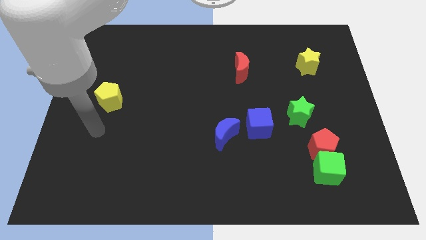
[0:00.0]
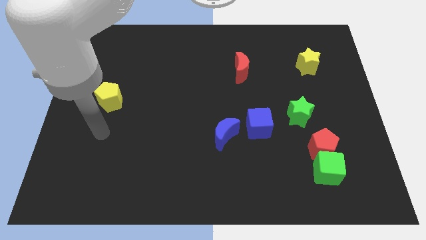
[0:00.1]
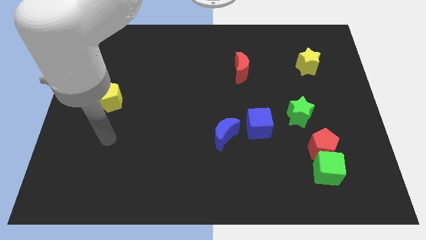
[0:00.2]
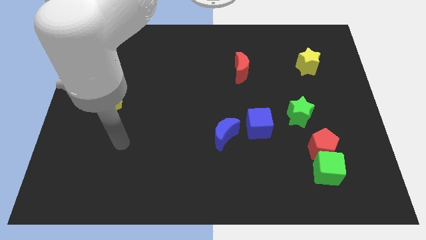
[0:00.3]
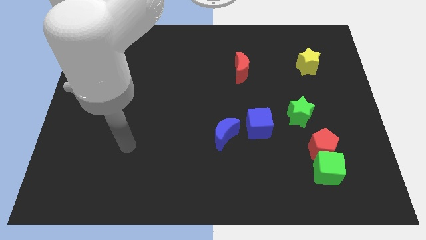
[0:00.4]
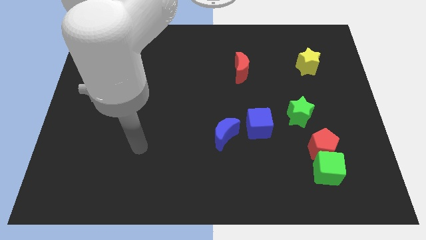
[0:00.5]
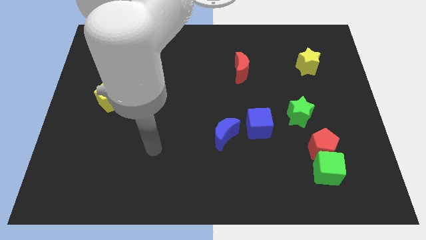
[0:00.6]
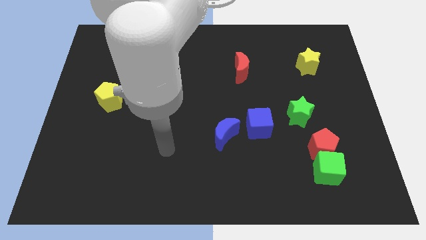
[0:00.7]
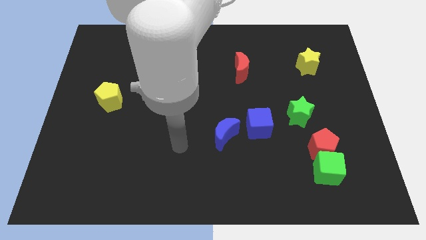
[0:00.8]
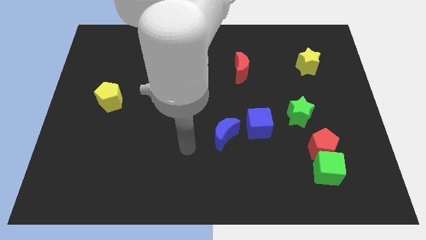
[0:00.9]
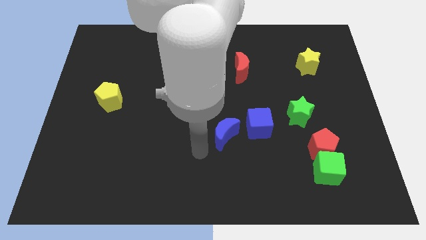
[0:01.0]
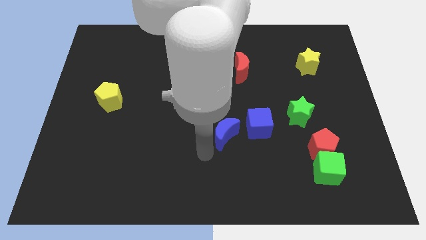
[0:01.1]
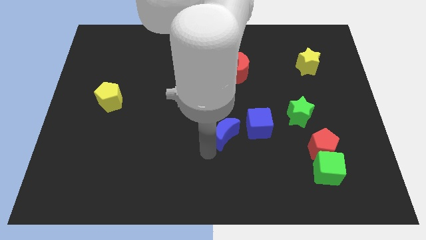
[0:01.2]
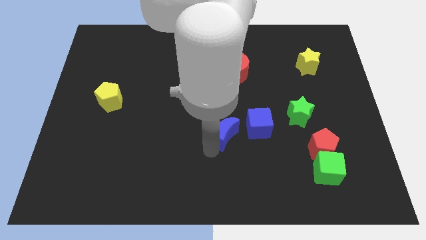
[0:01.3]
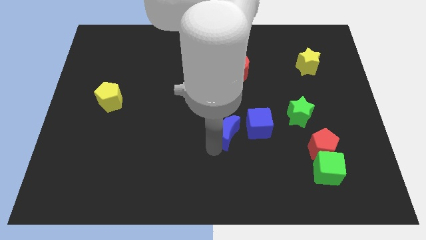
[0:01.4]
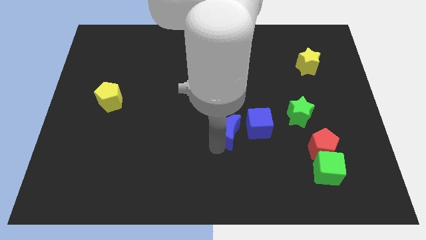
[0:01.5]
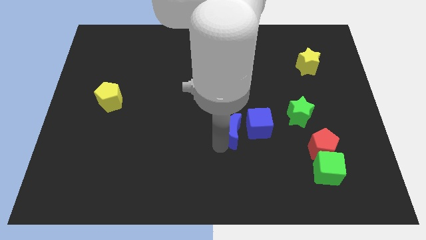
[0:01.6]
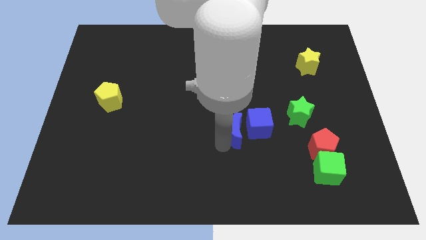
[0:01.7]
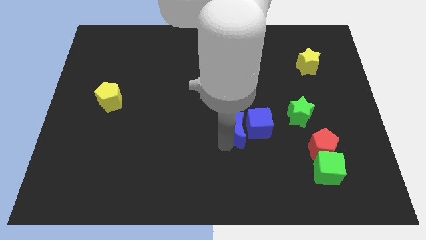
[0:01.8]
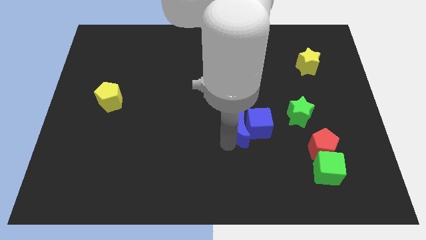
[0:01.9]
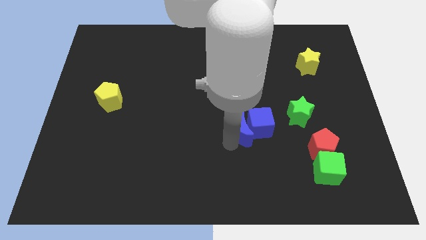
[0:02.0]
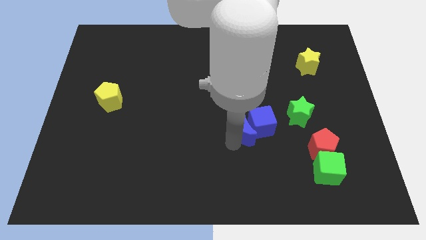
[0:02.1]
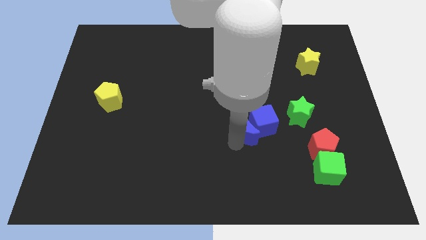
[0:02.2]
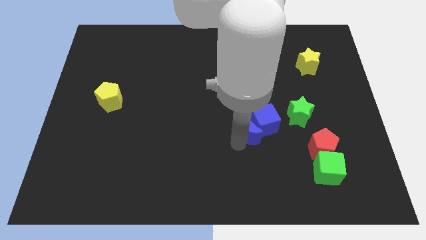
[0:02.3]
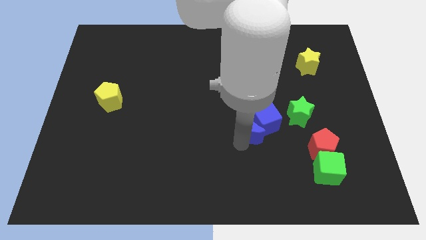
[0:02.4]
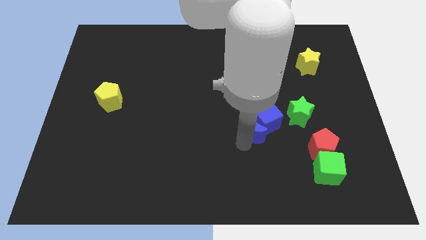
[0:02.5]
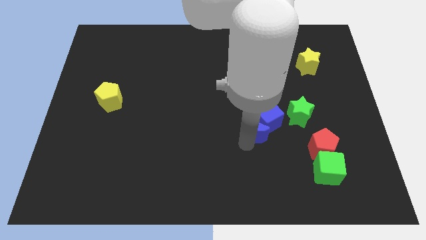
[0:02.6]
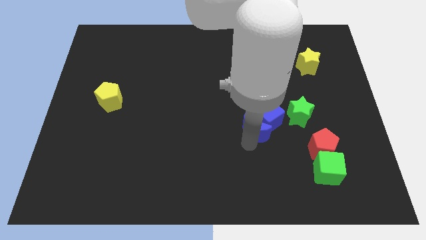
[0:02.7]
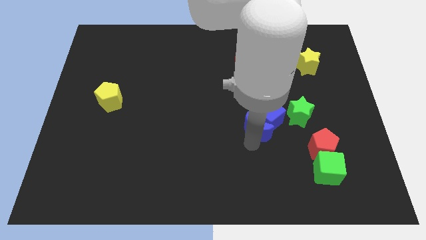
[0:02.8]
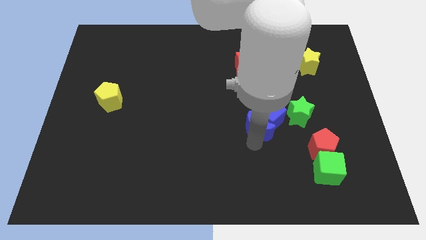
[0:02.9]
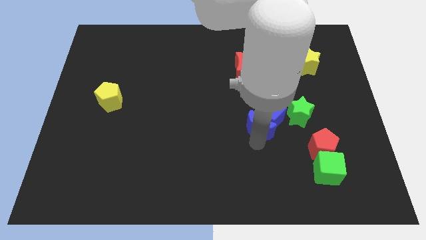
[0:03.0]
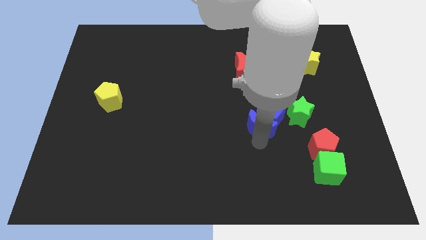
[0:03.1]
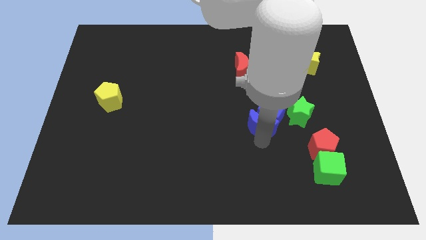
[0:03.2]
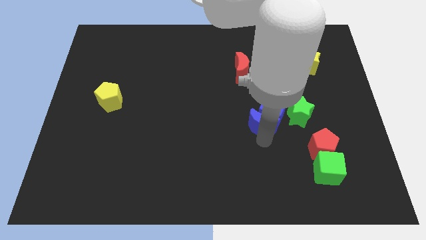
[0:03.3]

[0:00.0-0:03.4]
slide the blue moon diagonally upwards and right somewhat

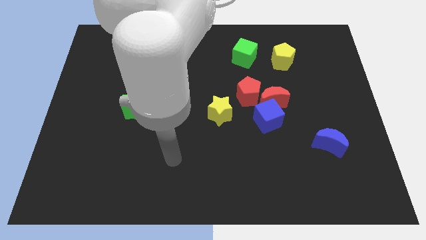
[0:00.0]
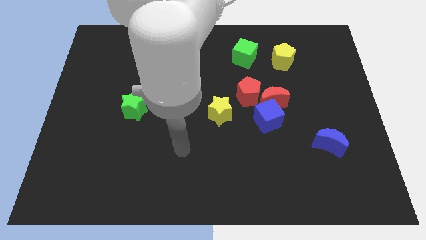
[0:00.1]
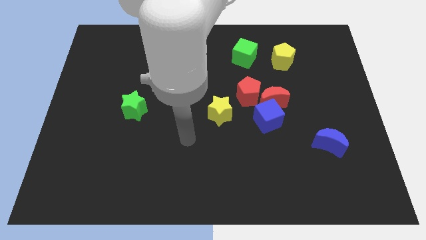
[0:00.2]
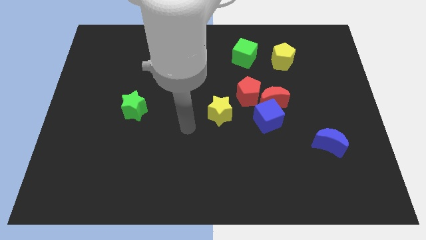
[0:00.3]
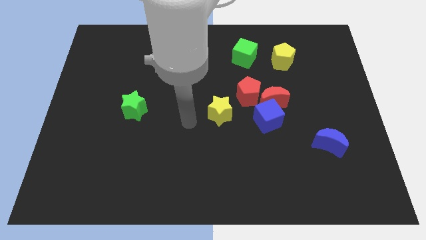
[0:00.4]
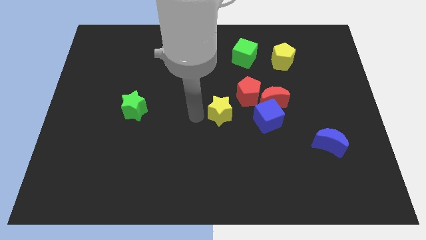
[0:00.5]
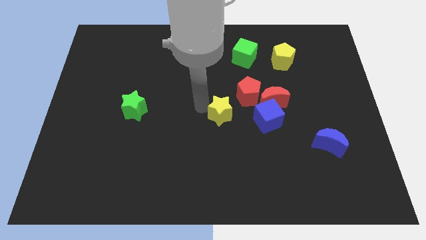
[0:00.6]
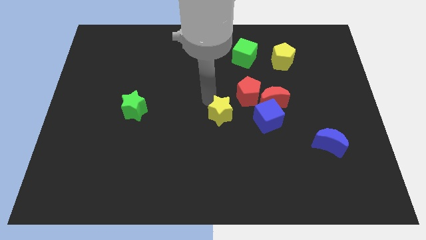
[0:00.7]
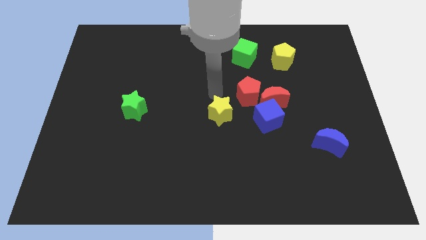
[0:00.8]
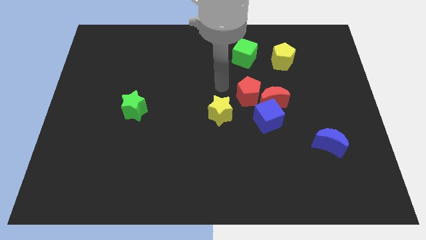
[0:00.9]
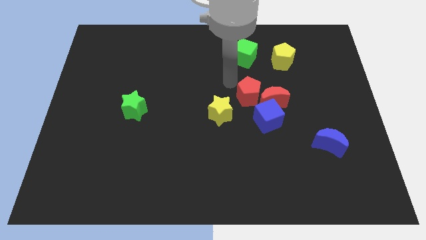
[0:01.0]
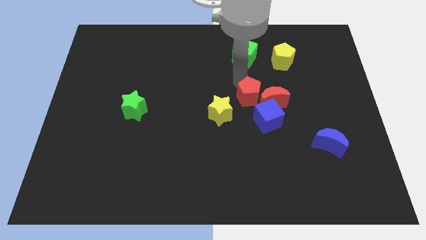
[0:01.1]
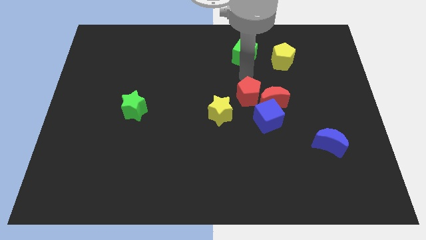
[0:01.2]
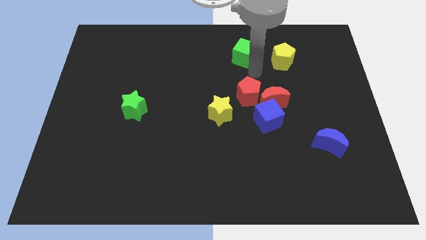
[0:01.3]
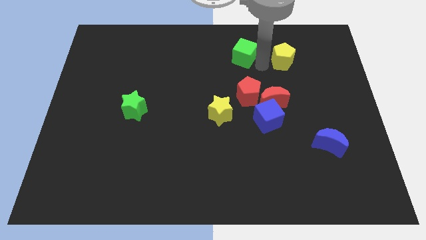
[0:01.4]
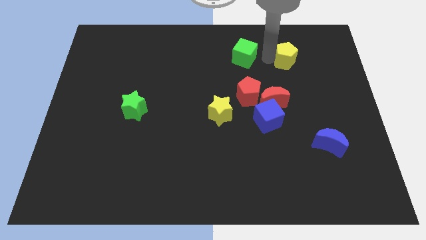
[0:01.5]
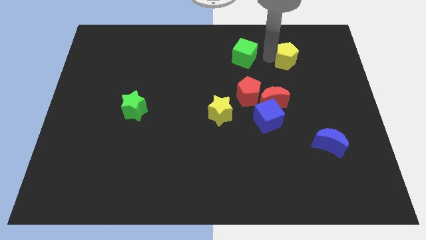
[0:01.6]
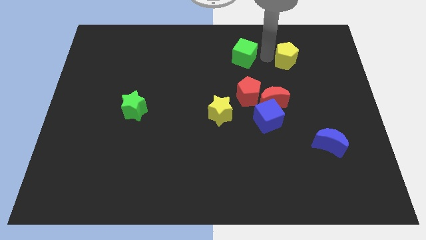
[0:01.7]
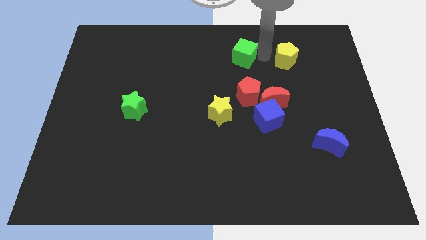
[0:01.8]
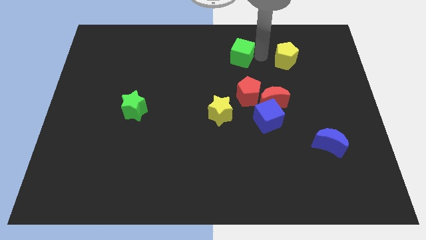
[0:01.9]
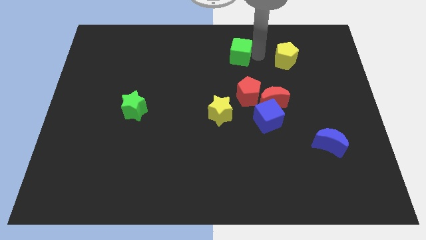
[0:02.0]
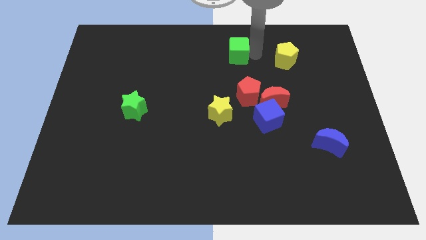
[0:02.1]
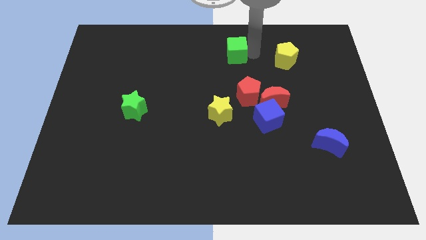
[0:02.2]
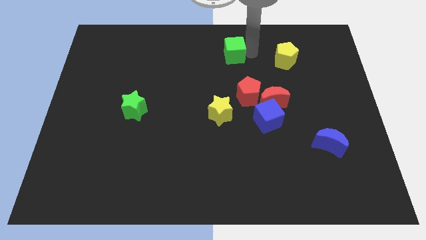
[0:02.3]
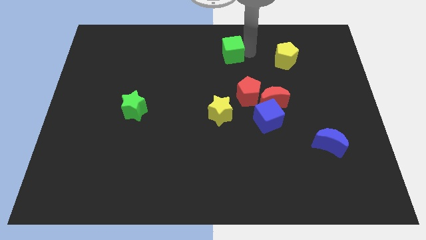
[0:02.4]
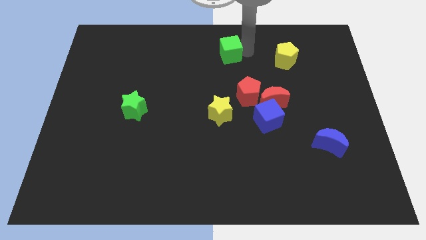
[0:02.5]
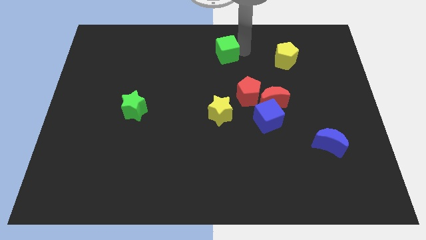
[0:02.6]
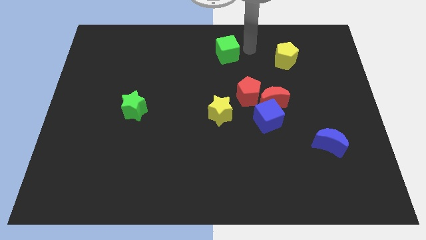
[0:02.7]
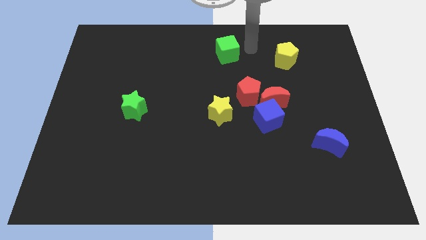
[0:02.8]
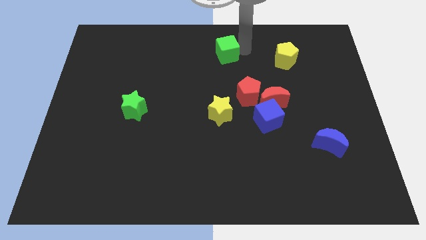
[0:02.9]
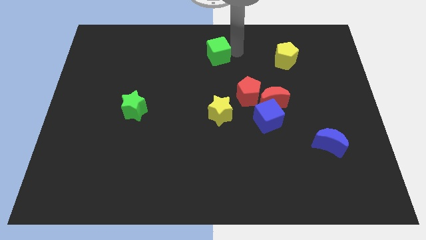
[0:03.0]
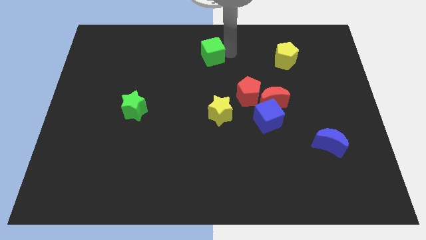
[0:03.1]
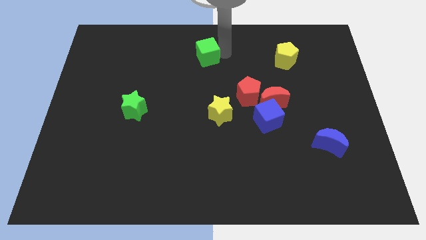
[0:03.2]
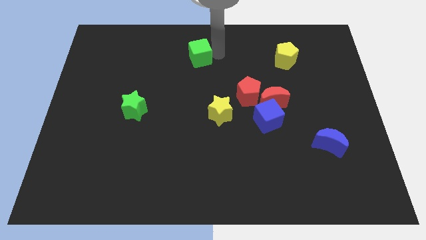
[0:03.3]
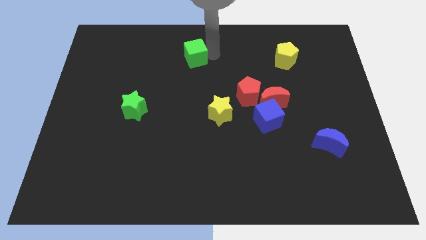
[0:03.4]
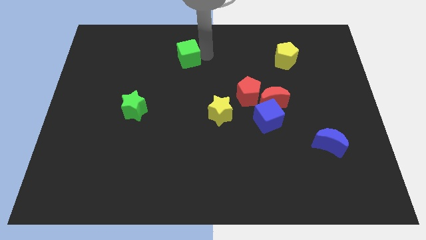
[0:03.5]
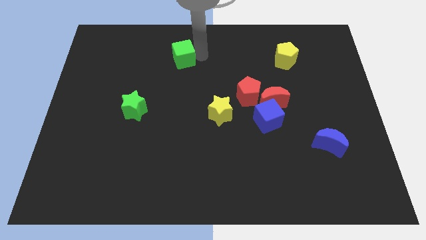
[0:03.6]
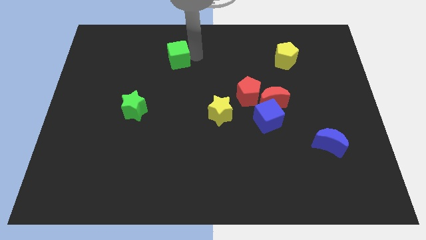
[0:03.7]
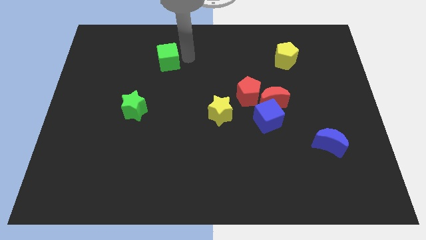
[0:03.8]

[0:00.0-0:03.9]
slide the green cube left

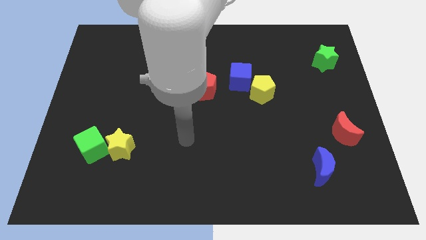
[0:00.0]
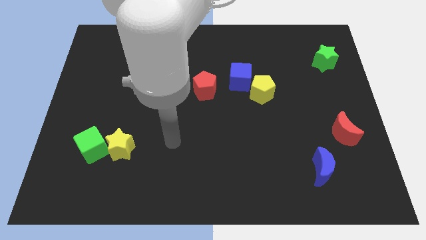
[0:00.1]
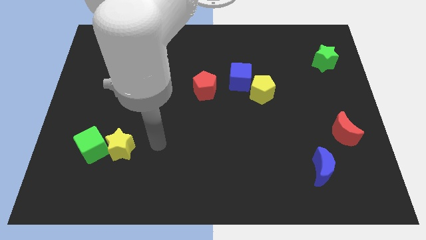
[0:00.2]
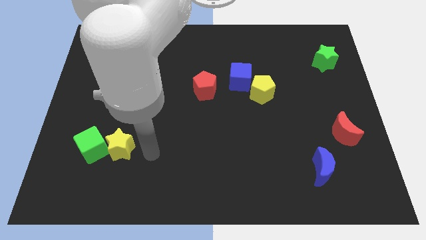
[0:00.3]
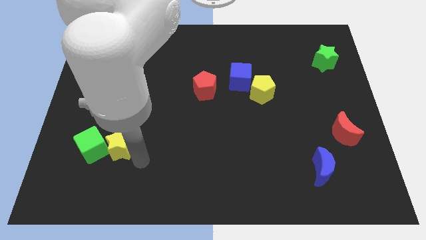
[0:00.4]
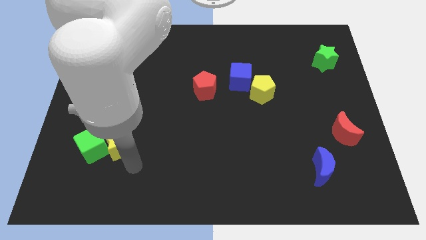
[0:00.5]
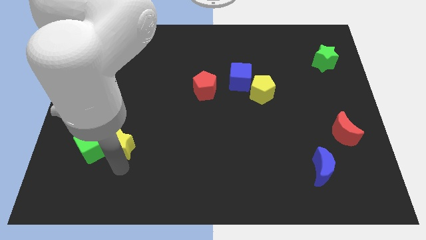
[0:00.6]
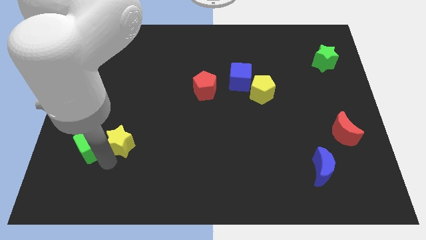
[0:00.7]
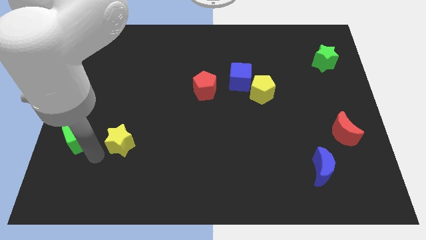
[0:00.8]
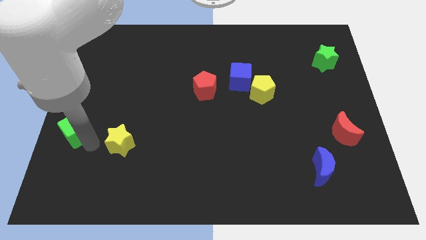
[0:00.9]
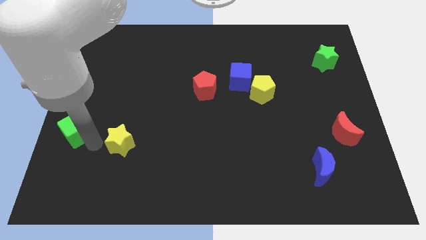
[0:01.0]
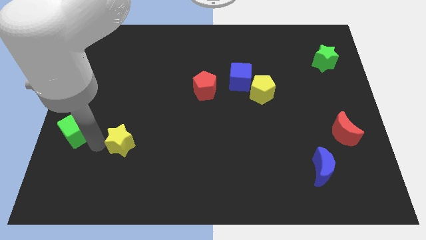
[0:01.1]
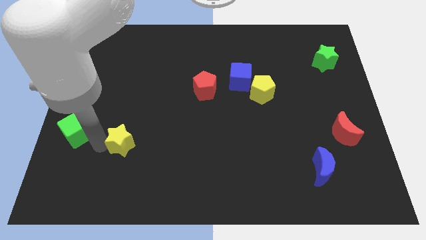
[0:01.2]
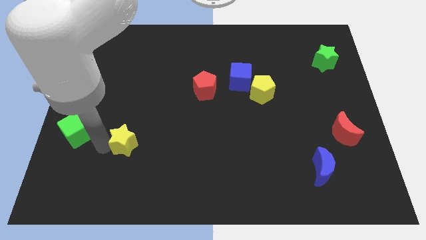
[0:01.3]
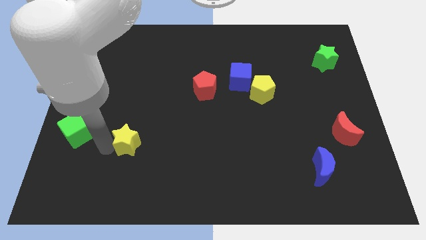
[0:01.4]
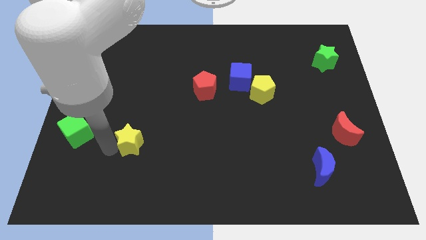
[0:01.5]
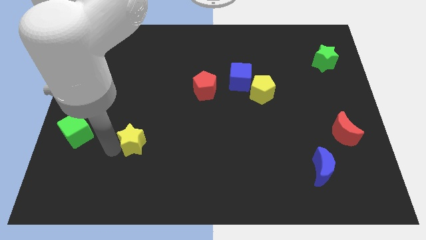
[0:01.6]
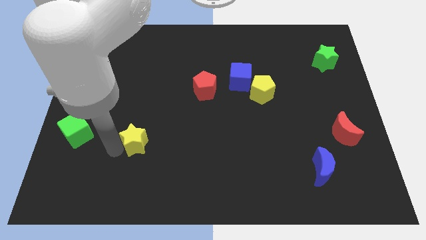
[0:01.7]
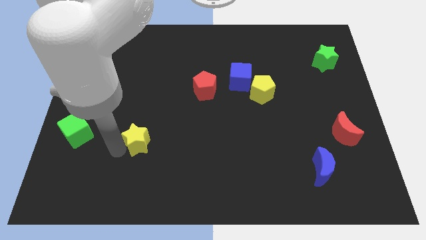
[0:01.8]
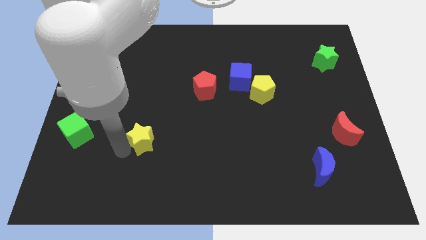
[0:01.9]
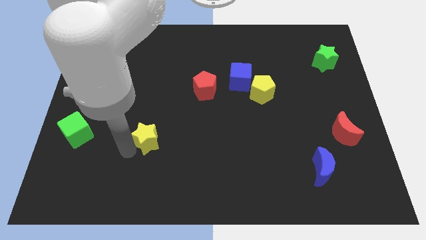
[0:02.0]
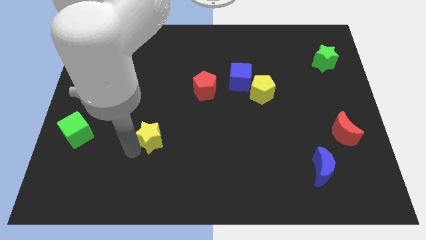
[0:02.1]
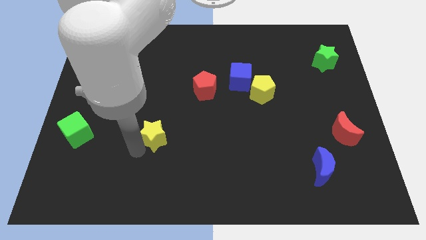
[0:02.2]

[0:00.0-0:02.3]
push the yellow star a little bit to the right
